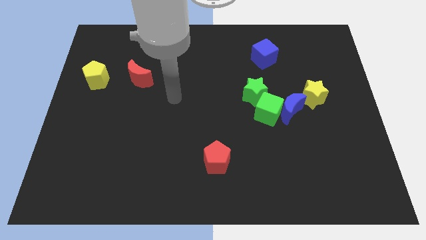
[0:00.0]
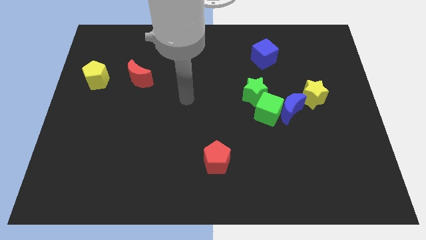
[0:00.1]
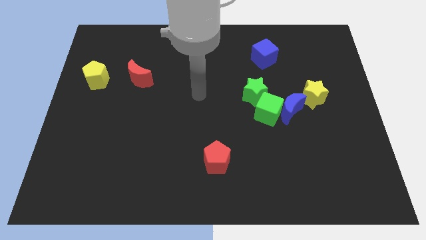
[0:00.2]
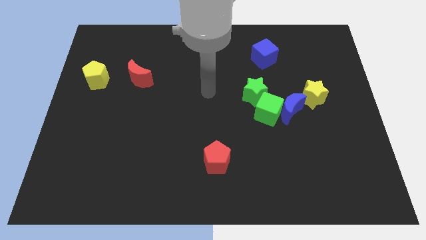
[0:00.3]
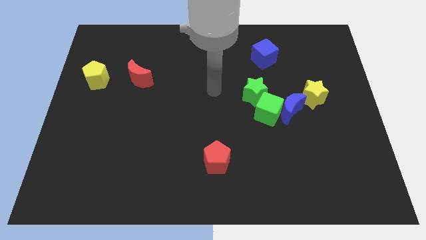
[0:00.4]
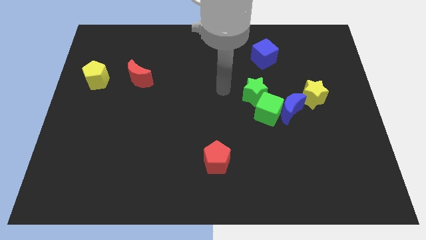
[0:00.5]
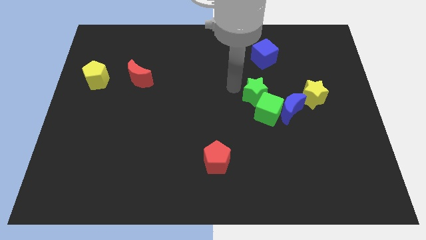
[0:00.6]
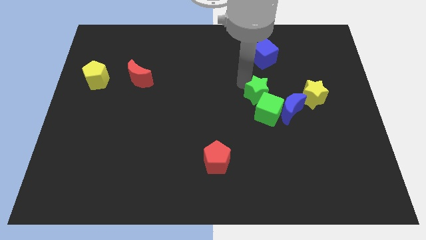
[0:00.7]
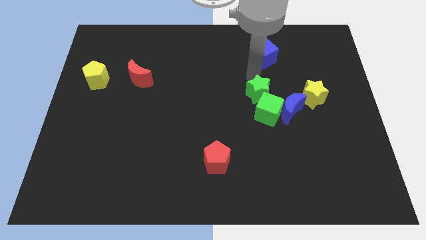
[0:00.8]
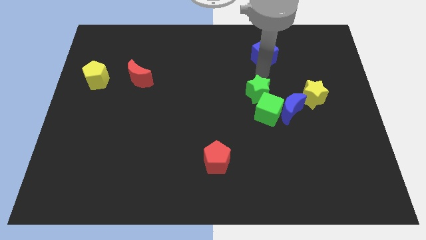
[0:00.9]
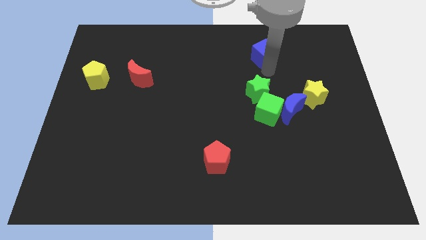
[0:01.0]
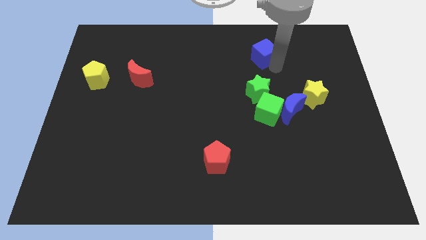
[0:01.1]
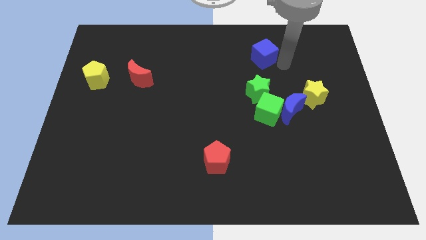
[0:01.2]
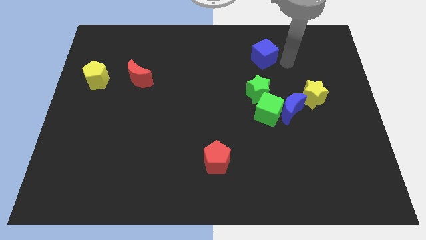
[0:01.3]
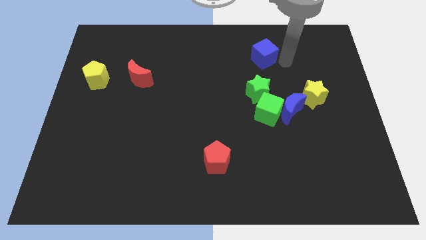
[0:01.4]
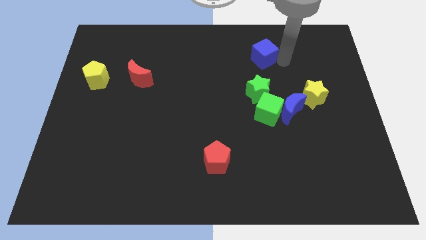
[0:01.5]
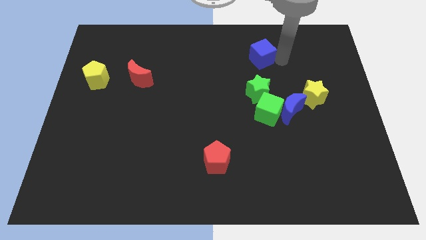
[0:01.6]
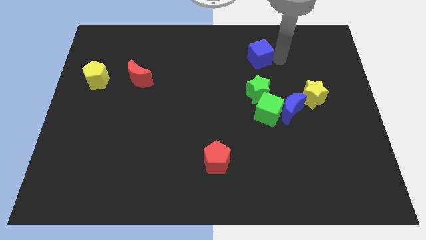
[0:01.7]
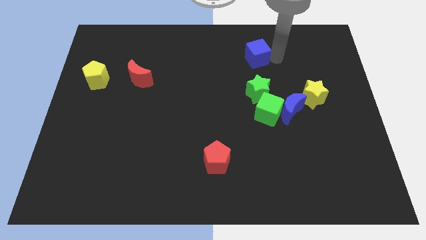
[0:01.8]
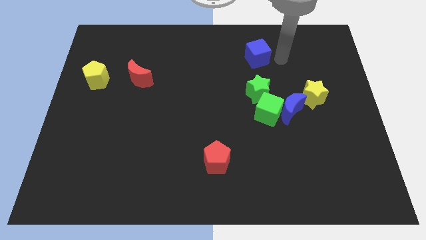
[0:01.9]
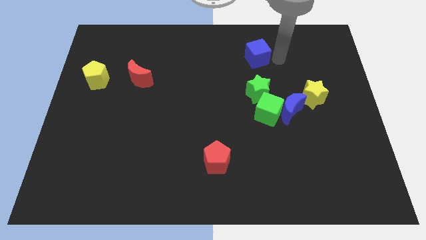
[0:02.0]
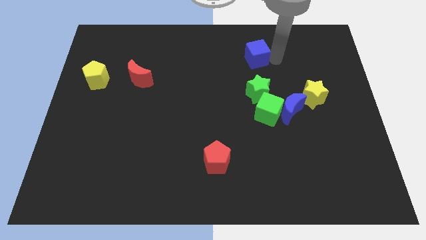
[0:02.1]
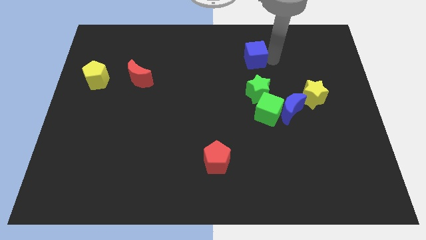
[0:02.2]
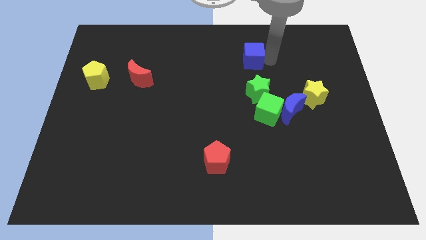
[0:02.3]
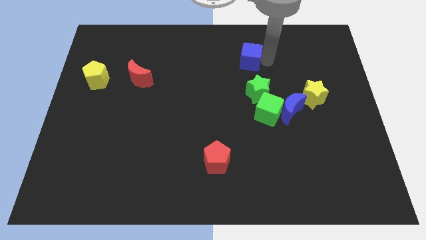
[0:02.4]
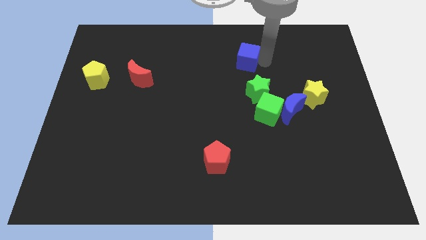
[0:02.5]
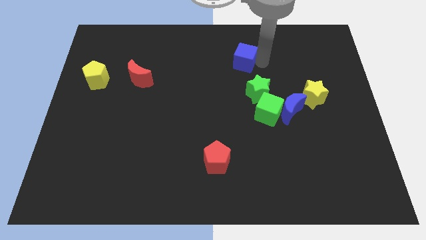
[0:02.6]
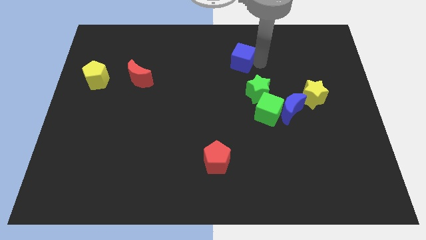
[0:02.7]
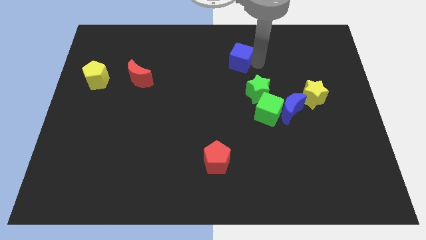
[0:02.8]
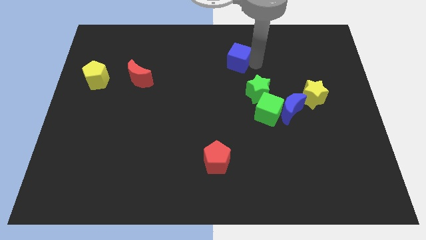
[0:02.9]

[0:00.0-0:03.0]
slightly push the blue cube left

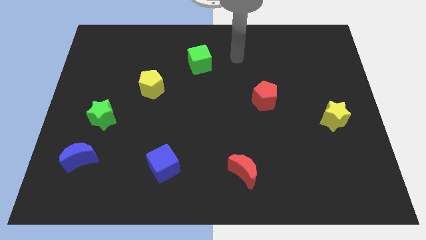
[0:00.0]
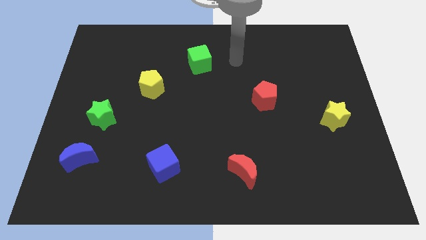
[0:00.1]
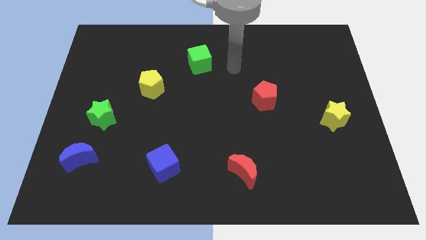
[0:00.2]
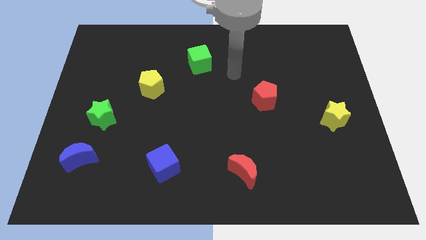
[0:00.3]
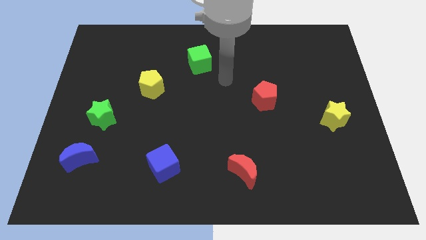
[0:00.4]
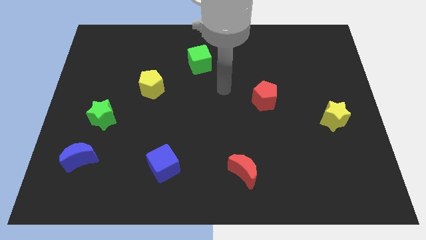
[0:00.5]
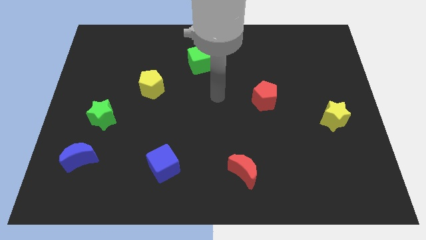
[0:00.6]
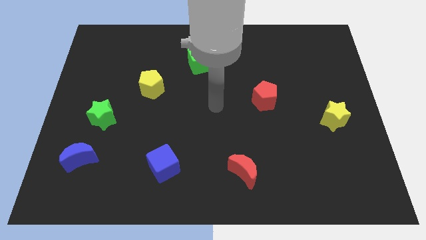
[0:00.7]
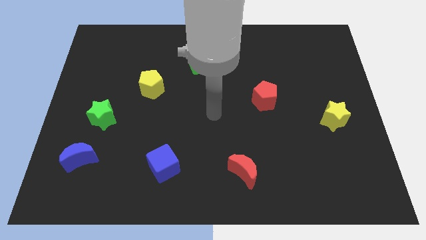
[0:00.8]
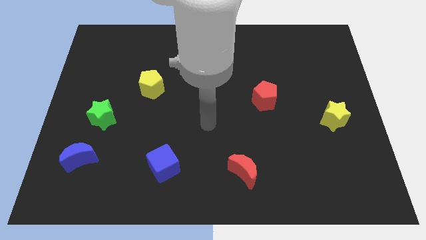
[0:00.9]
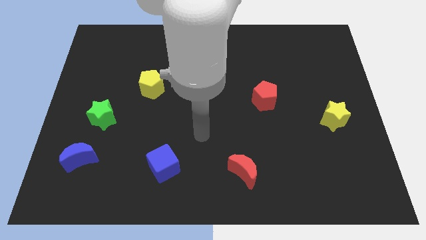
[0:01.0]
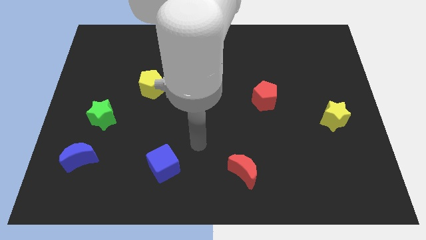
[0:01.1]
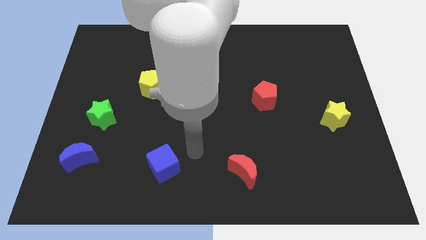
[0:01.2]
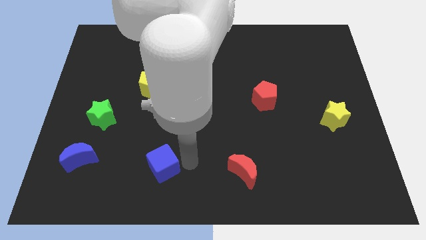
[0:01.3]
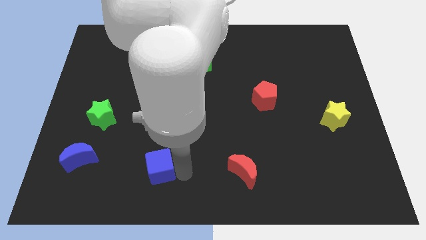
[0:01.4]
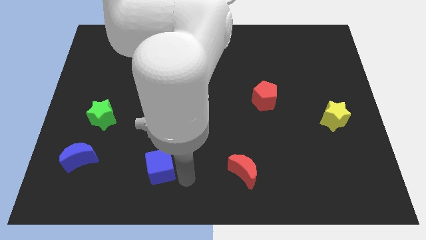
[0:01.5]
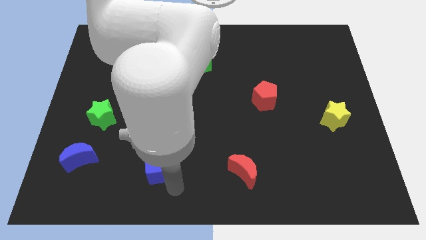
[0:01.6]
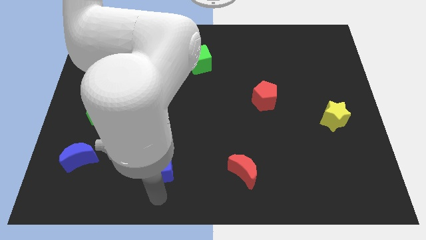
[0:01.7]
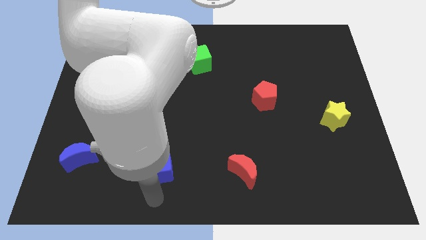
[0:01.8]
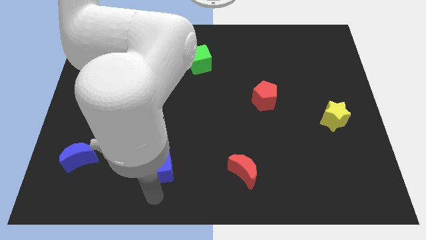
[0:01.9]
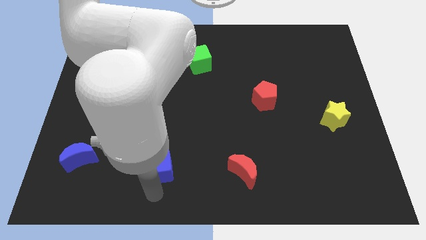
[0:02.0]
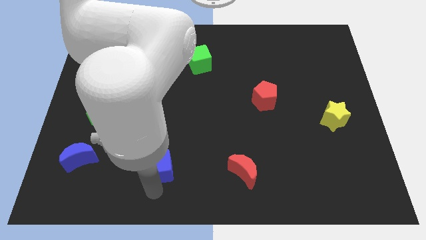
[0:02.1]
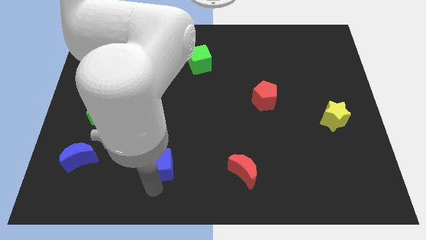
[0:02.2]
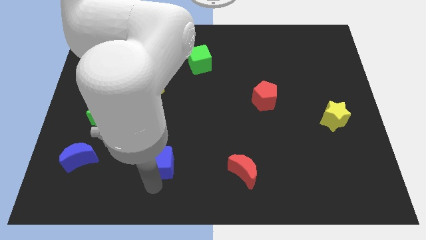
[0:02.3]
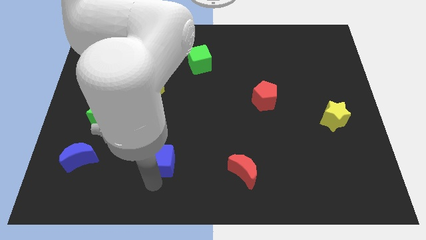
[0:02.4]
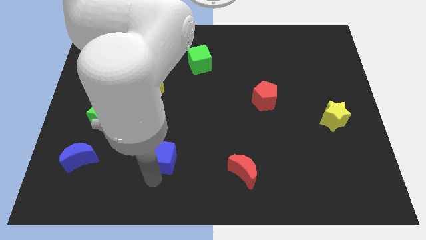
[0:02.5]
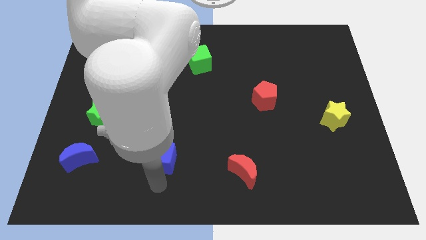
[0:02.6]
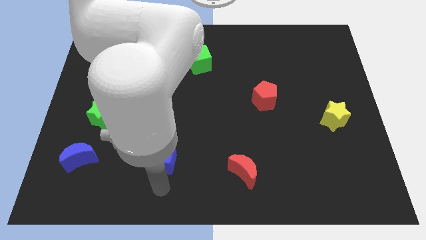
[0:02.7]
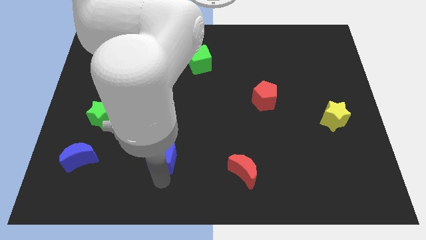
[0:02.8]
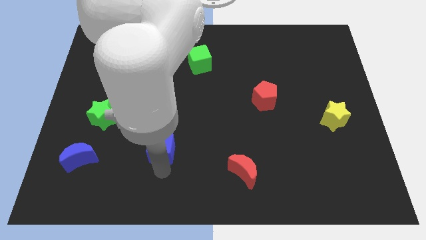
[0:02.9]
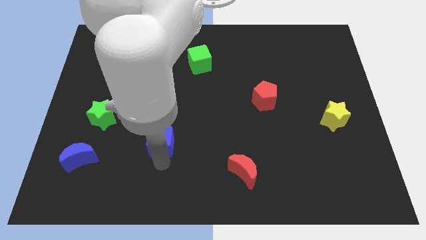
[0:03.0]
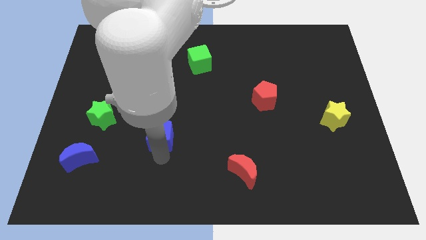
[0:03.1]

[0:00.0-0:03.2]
slightly slide the blue cube up

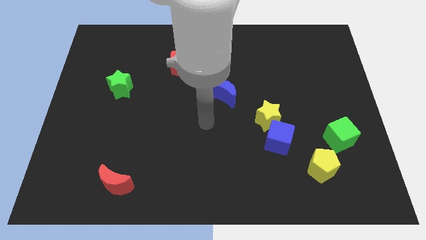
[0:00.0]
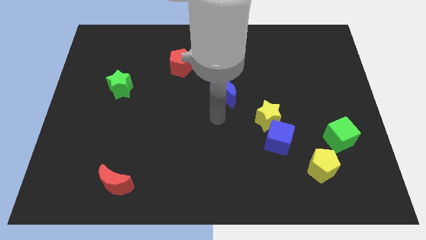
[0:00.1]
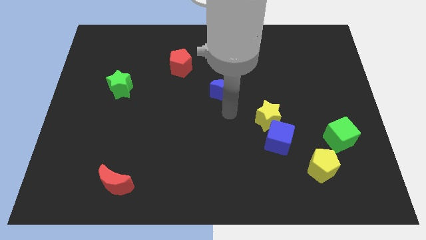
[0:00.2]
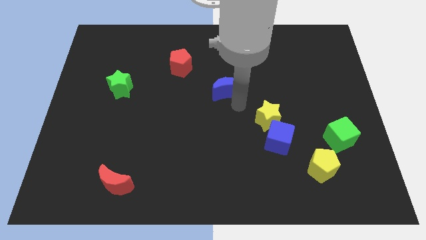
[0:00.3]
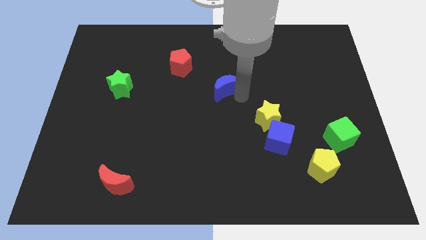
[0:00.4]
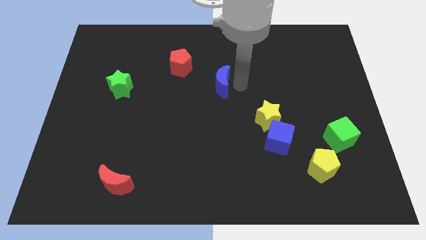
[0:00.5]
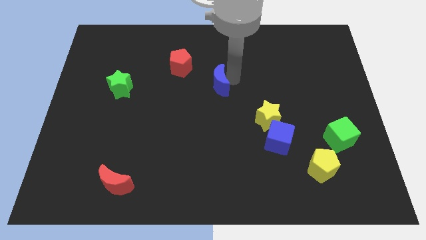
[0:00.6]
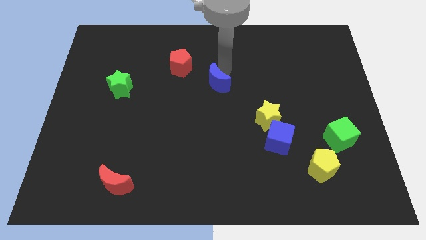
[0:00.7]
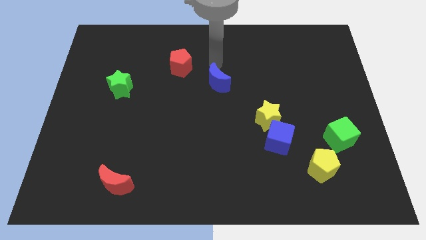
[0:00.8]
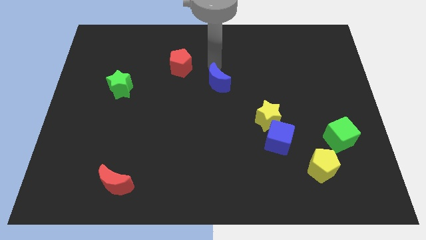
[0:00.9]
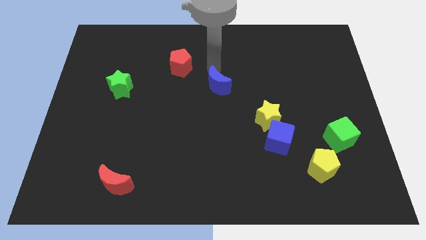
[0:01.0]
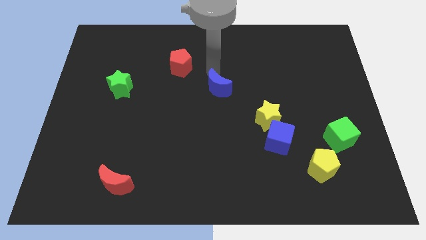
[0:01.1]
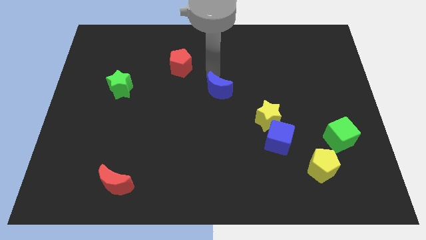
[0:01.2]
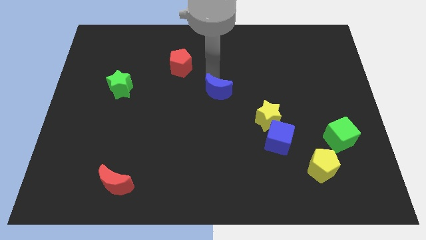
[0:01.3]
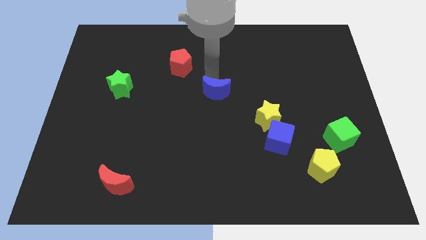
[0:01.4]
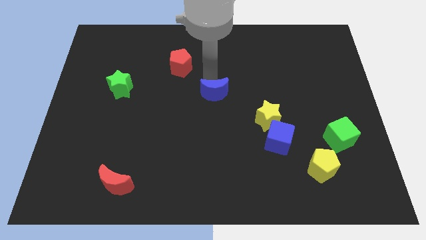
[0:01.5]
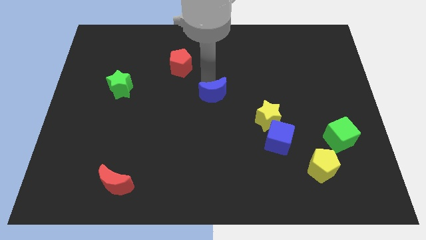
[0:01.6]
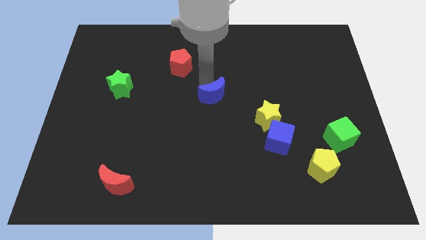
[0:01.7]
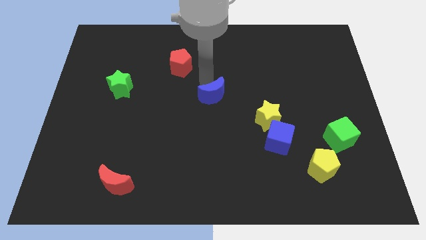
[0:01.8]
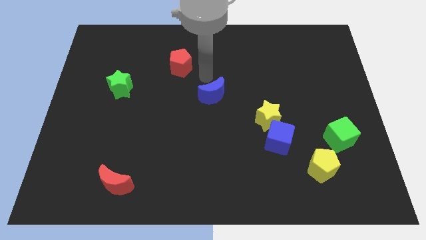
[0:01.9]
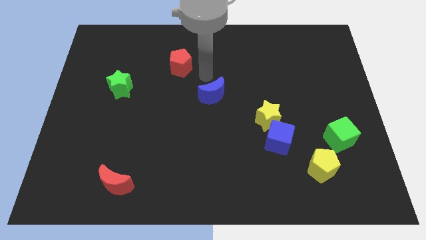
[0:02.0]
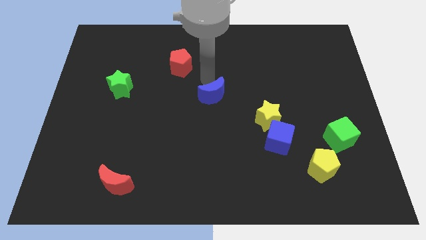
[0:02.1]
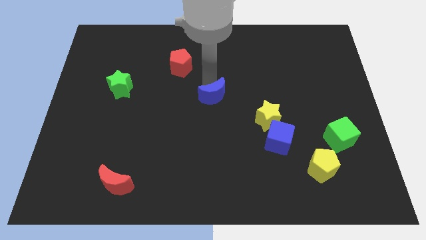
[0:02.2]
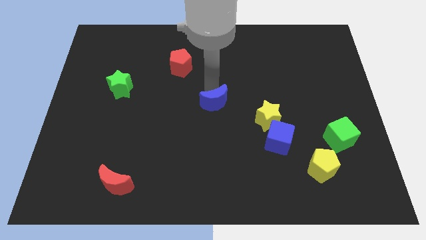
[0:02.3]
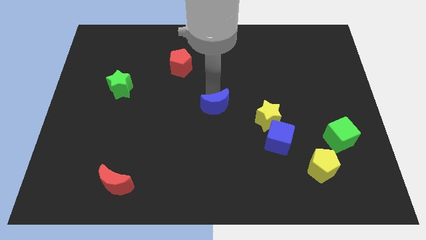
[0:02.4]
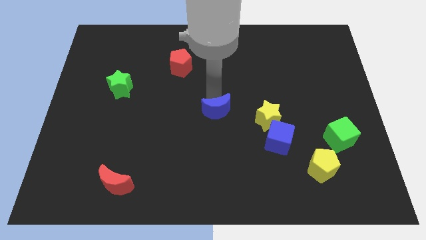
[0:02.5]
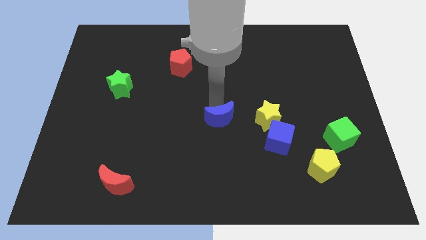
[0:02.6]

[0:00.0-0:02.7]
slightly push the blue moon downwards
